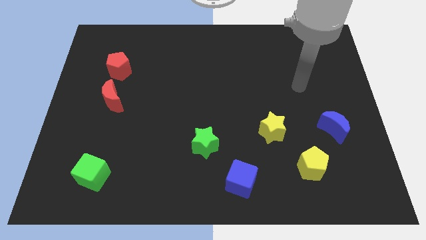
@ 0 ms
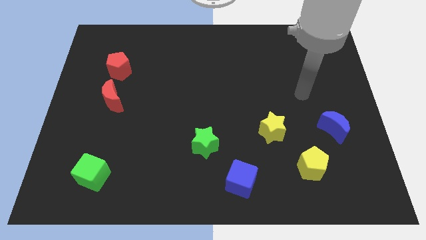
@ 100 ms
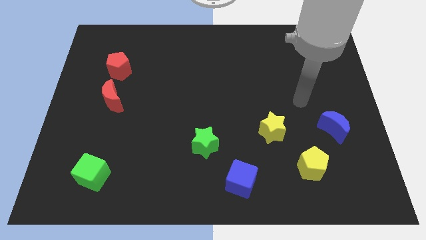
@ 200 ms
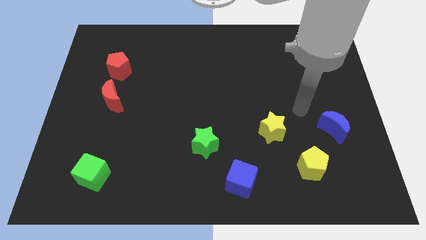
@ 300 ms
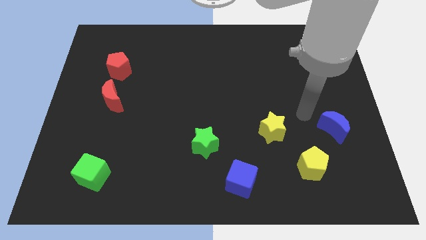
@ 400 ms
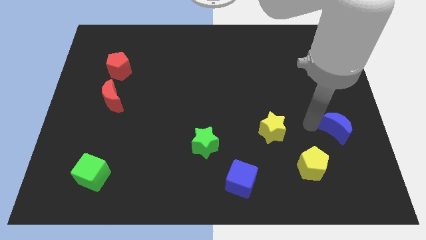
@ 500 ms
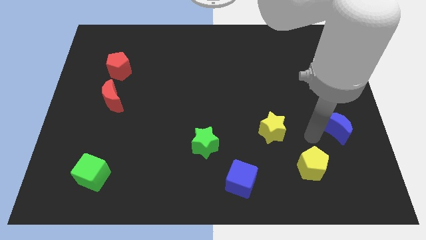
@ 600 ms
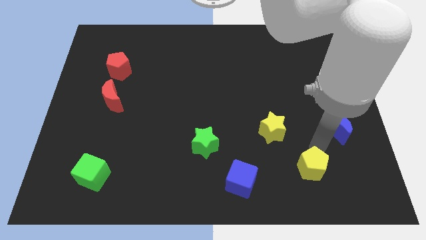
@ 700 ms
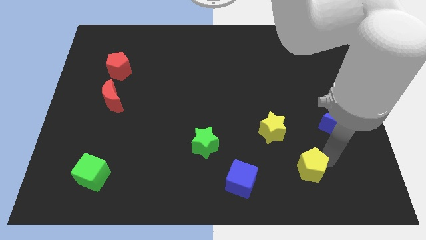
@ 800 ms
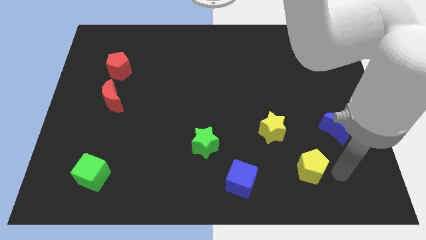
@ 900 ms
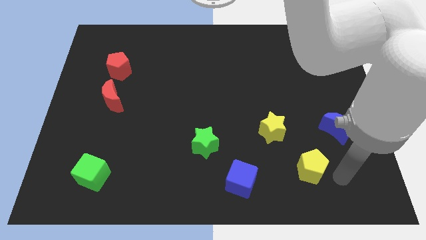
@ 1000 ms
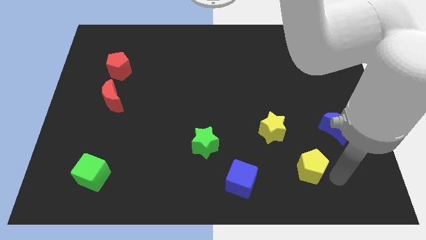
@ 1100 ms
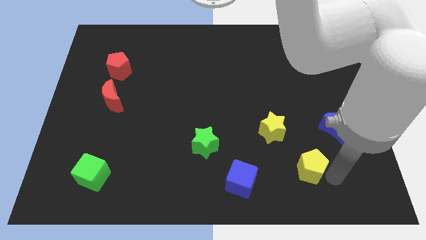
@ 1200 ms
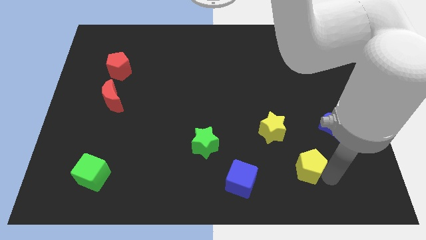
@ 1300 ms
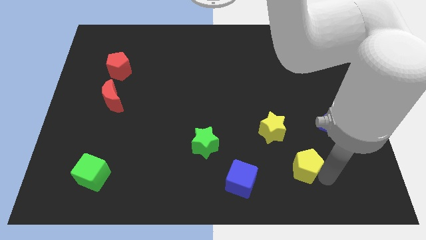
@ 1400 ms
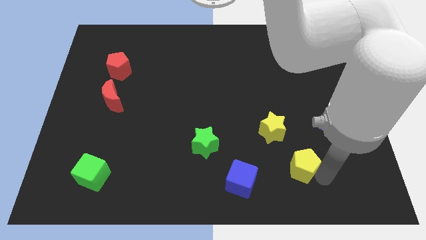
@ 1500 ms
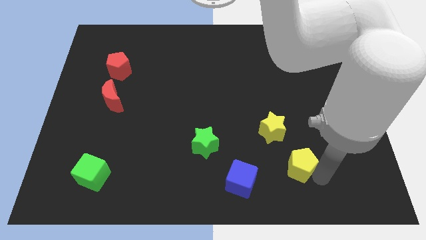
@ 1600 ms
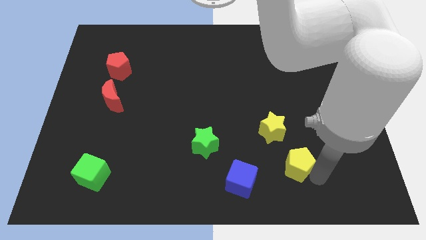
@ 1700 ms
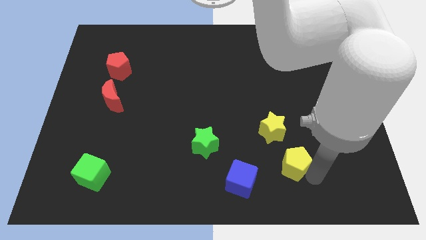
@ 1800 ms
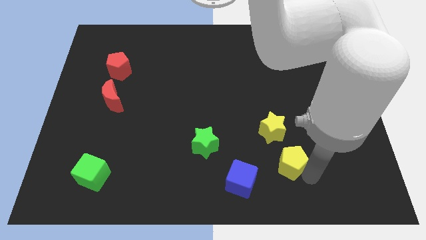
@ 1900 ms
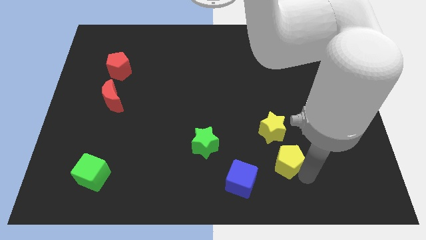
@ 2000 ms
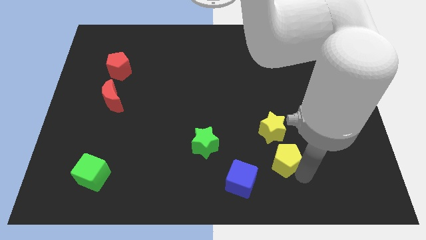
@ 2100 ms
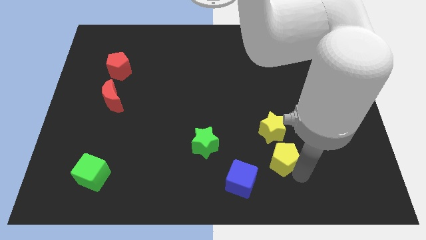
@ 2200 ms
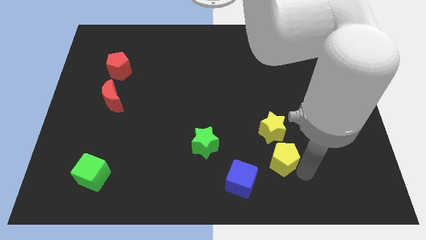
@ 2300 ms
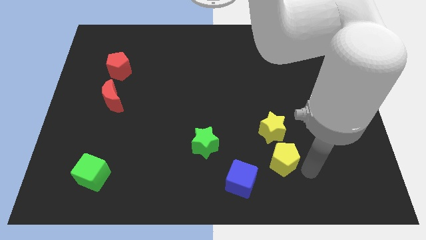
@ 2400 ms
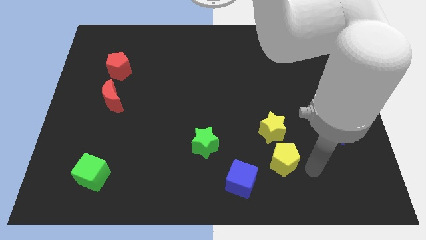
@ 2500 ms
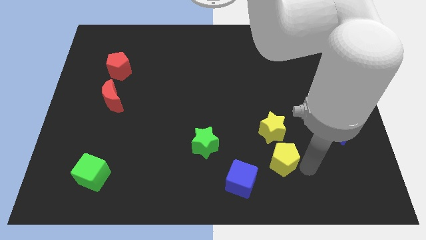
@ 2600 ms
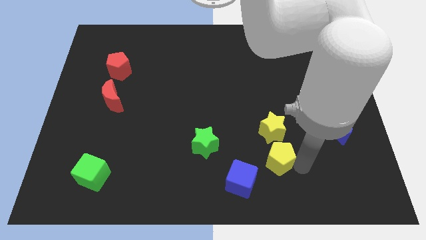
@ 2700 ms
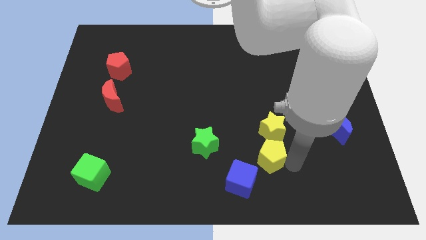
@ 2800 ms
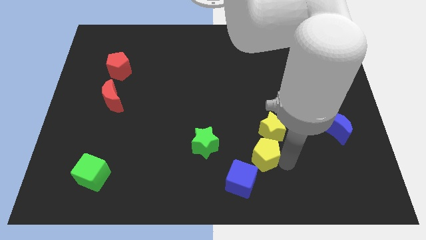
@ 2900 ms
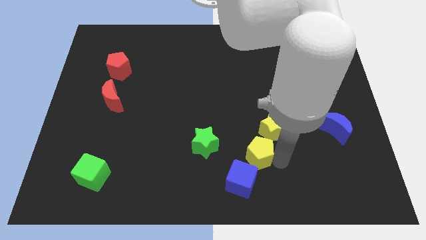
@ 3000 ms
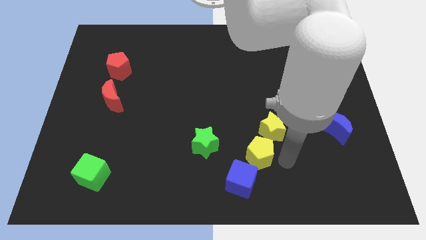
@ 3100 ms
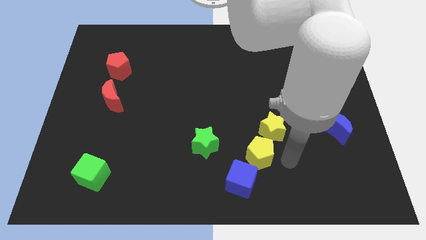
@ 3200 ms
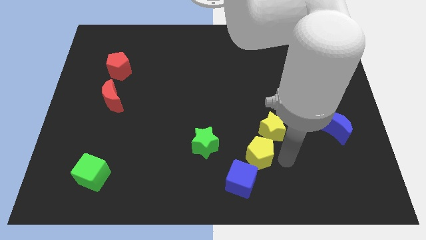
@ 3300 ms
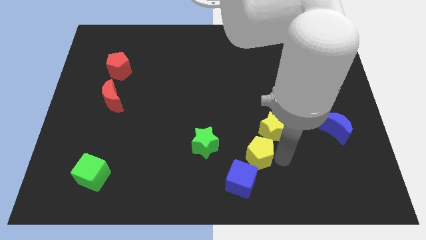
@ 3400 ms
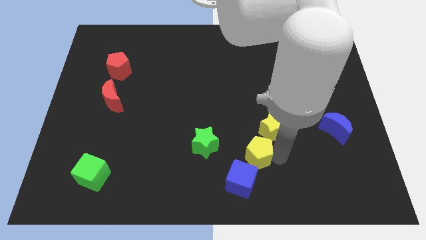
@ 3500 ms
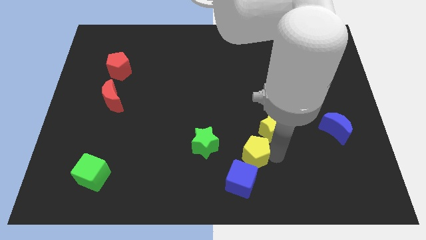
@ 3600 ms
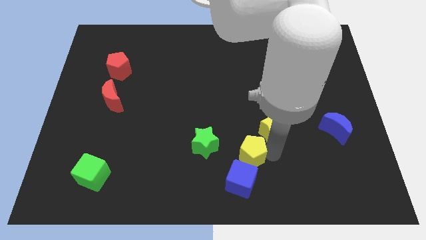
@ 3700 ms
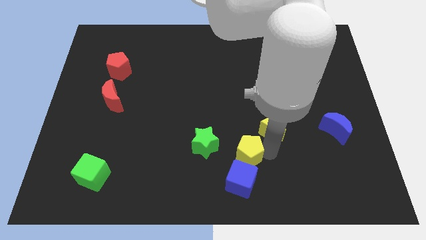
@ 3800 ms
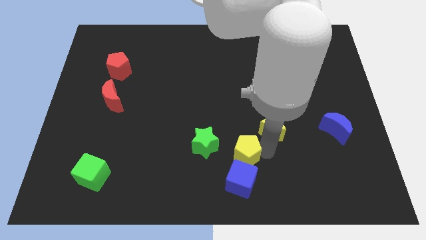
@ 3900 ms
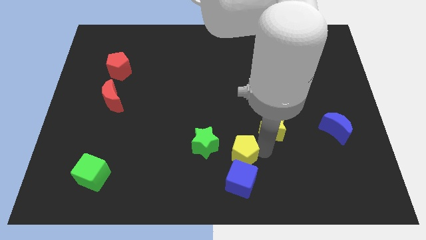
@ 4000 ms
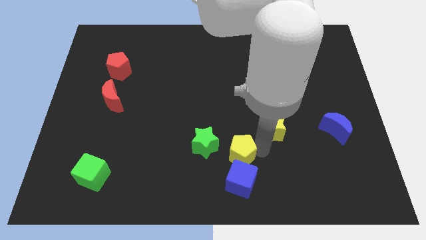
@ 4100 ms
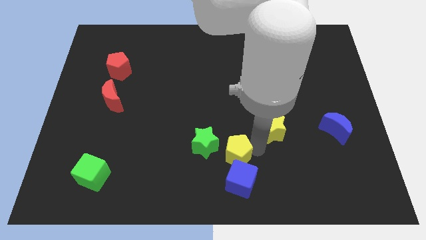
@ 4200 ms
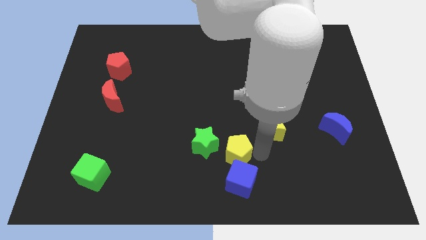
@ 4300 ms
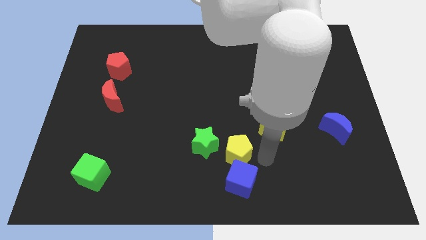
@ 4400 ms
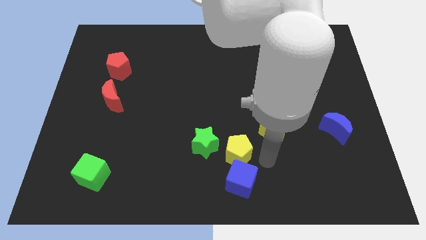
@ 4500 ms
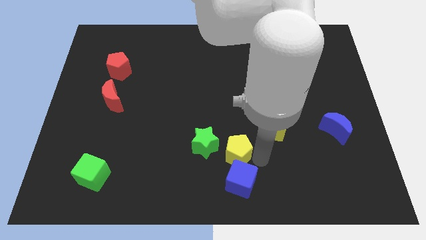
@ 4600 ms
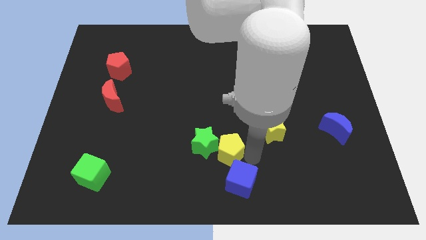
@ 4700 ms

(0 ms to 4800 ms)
put the yellow pentagon to the green star

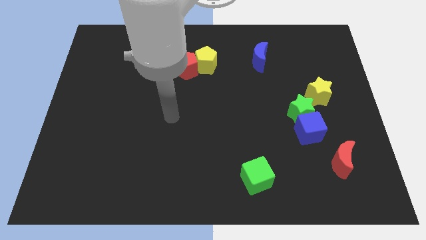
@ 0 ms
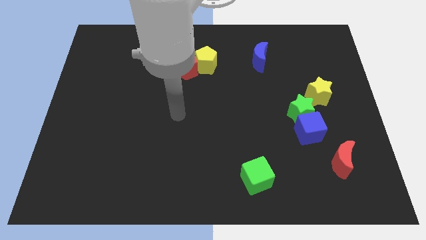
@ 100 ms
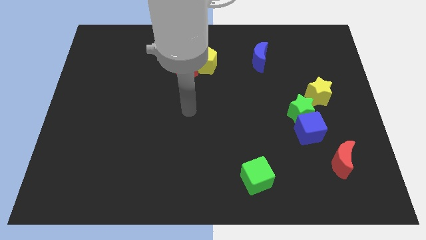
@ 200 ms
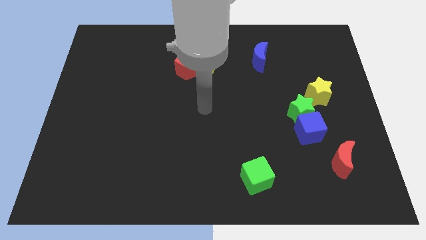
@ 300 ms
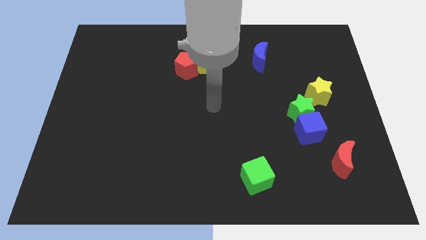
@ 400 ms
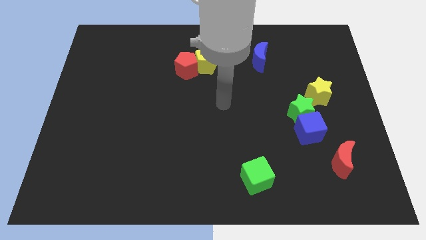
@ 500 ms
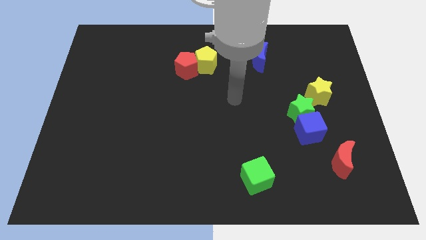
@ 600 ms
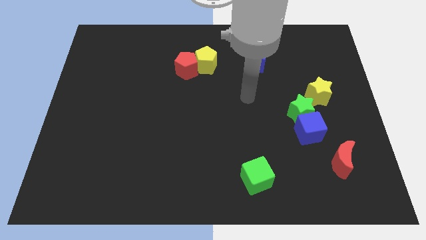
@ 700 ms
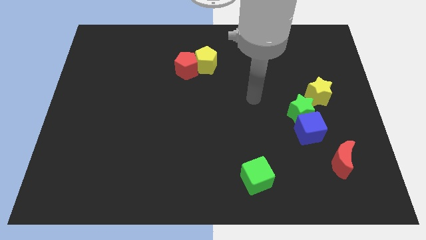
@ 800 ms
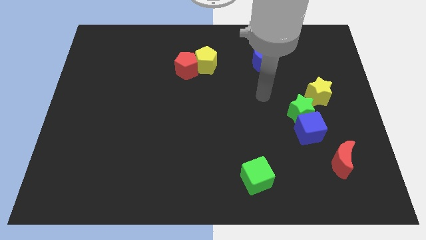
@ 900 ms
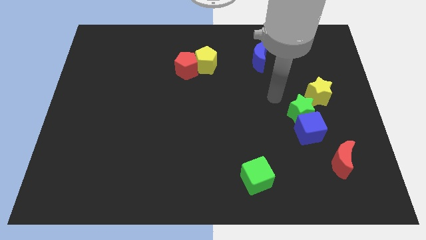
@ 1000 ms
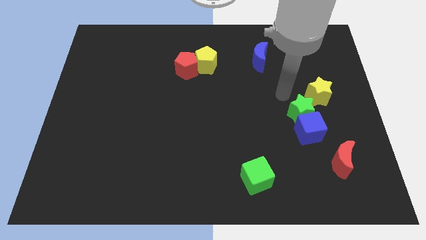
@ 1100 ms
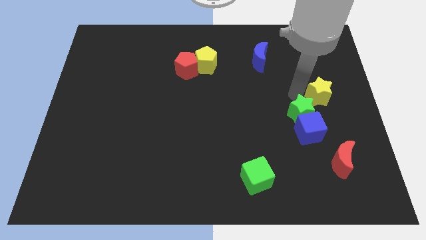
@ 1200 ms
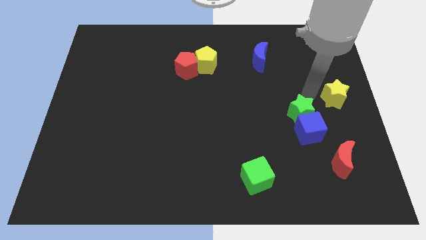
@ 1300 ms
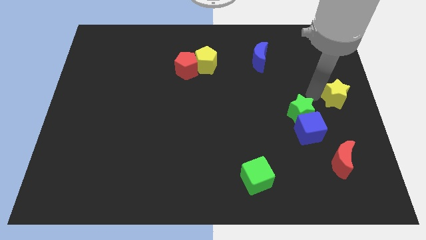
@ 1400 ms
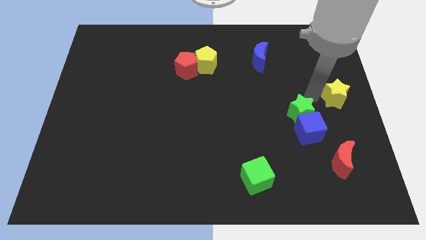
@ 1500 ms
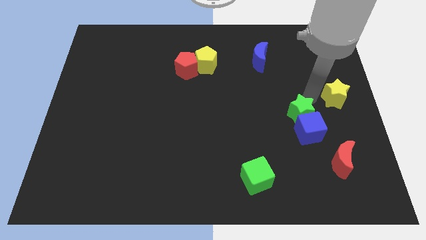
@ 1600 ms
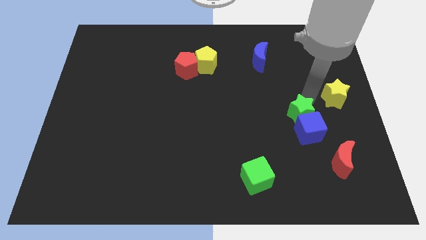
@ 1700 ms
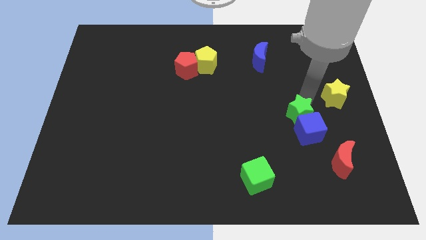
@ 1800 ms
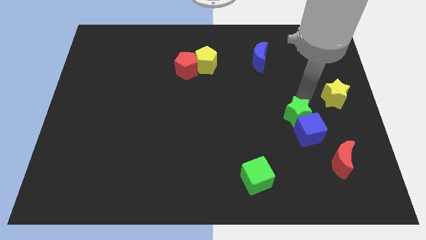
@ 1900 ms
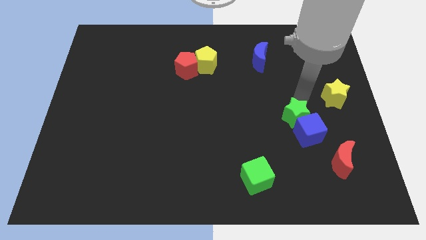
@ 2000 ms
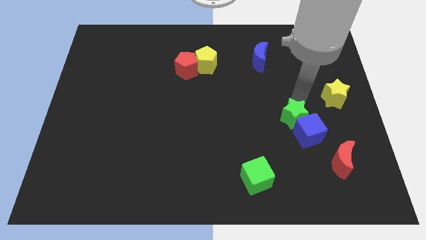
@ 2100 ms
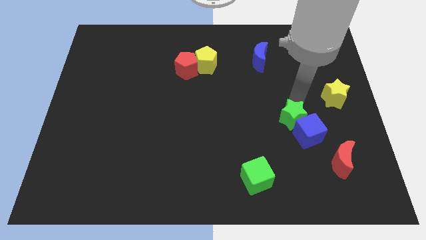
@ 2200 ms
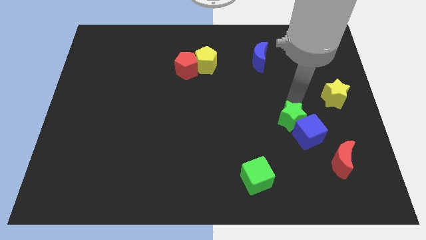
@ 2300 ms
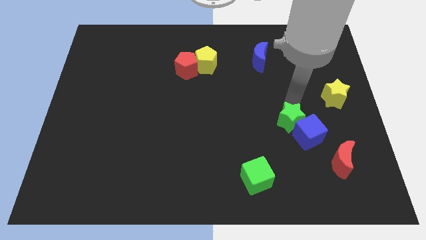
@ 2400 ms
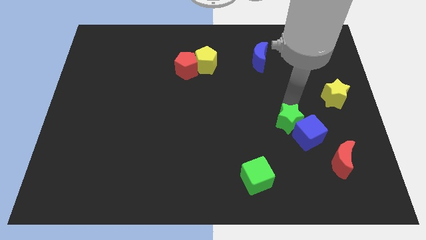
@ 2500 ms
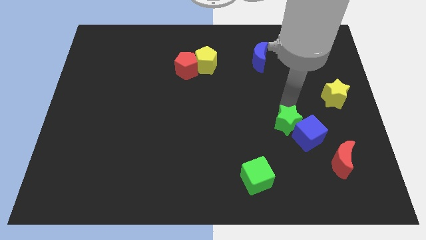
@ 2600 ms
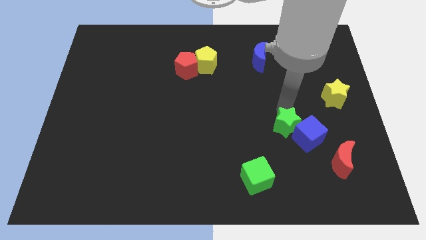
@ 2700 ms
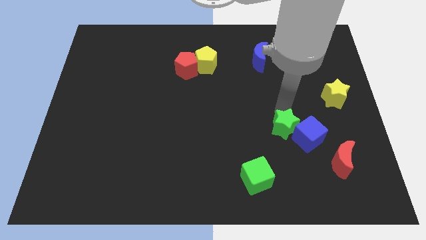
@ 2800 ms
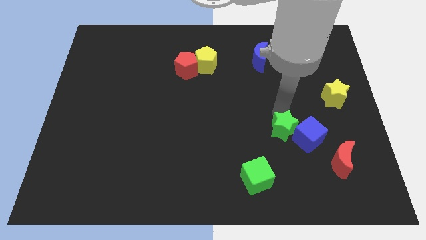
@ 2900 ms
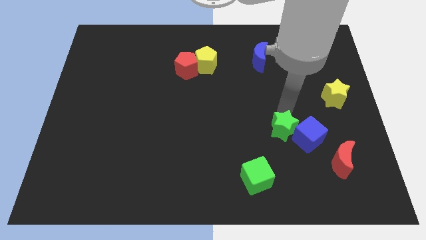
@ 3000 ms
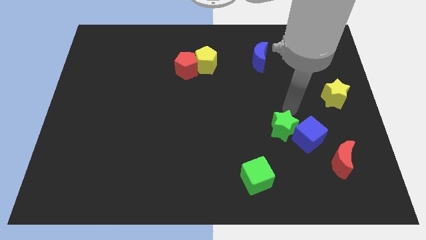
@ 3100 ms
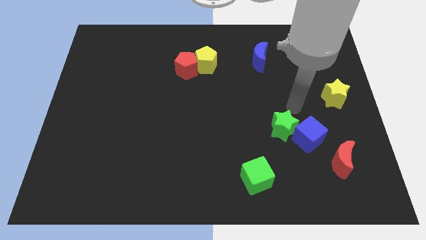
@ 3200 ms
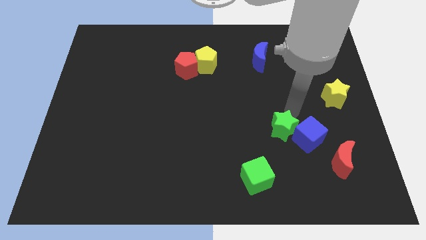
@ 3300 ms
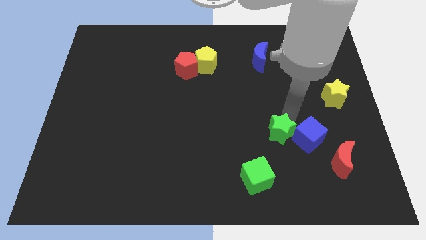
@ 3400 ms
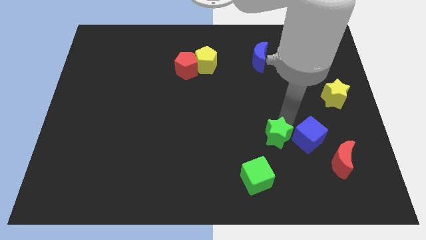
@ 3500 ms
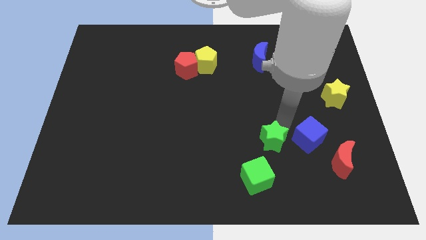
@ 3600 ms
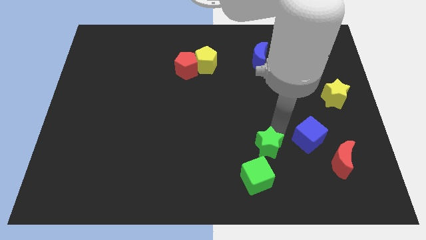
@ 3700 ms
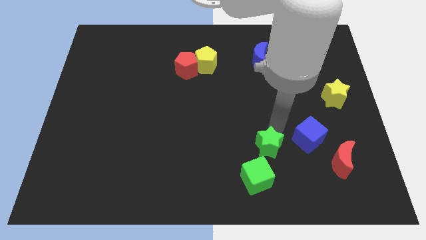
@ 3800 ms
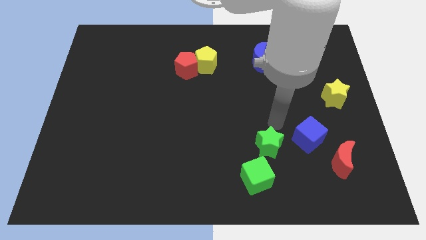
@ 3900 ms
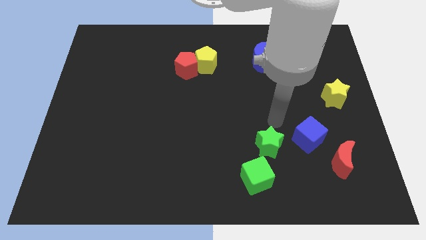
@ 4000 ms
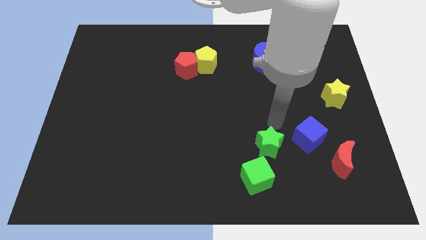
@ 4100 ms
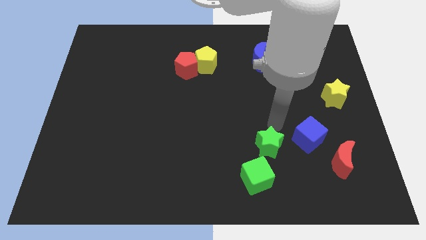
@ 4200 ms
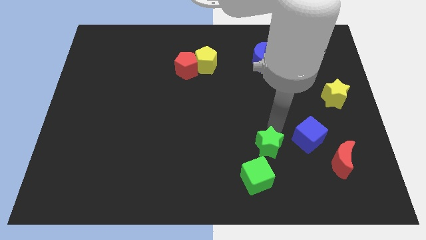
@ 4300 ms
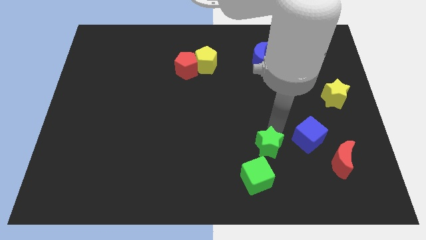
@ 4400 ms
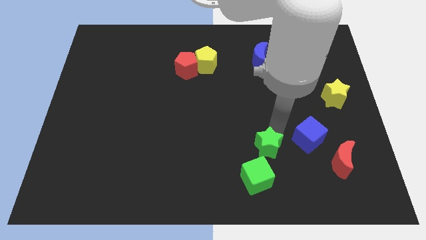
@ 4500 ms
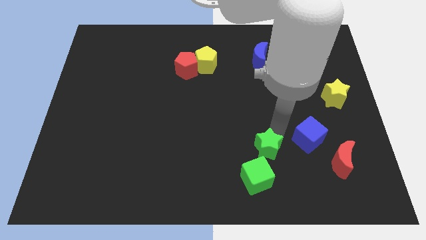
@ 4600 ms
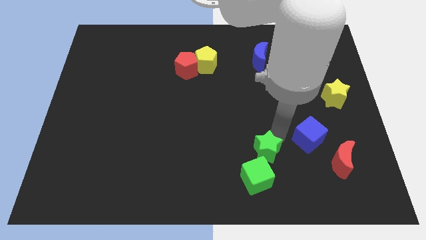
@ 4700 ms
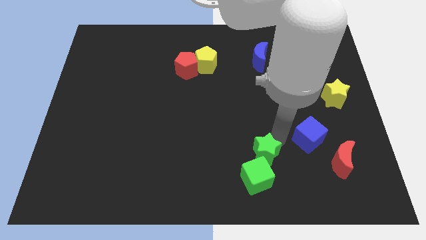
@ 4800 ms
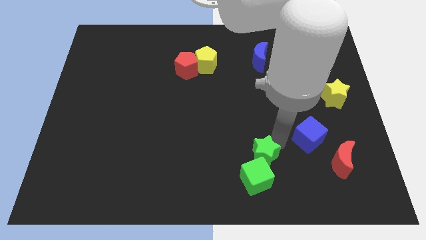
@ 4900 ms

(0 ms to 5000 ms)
put the green star close to the green cube
